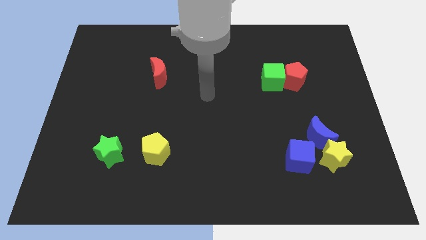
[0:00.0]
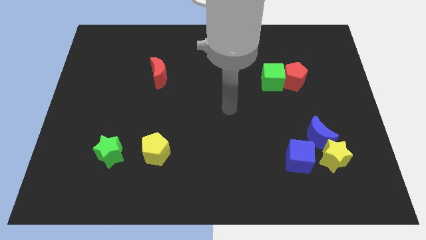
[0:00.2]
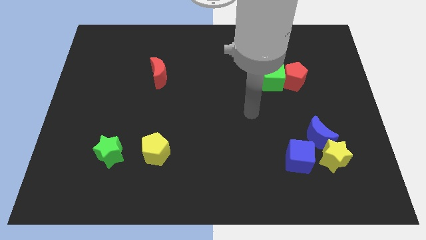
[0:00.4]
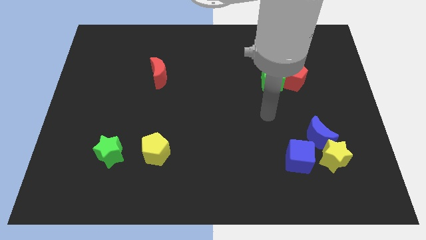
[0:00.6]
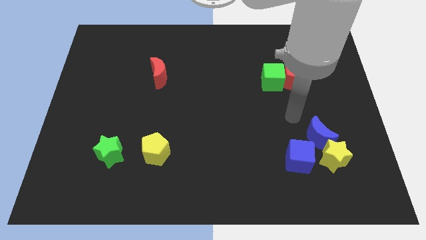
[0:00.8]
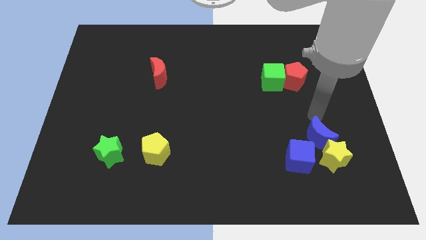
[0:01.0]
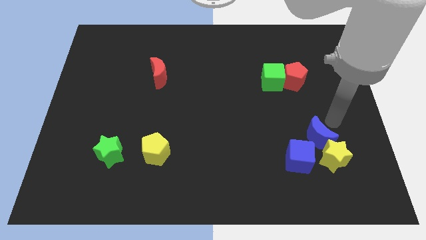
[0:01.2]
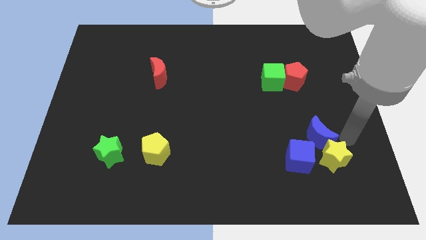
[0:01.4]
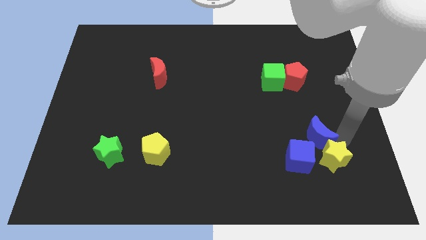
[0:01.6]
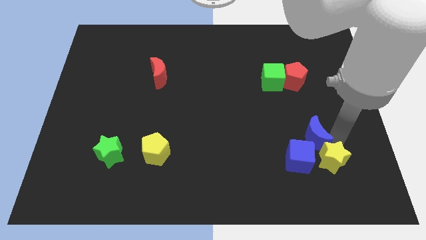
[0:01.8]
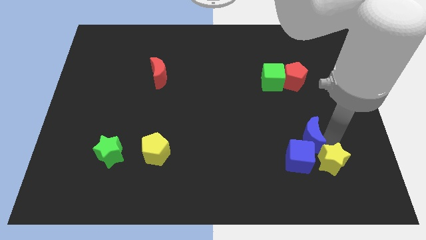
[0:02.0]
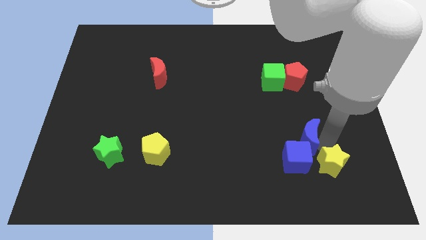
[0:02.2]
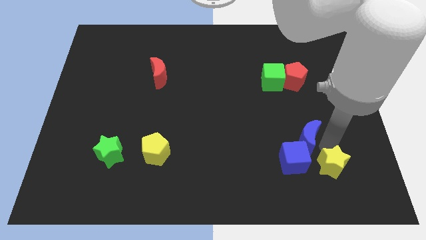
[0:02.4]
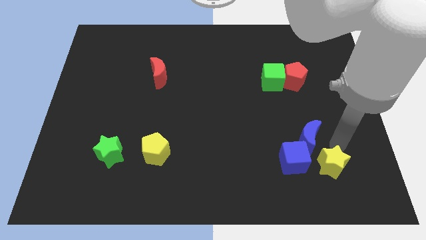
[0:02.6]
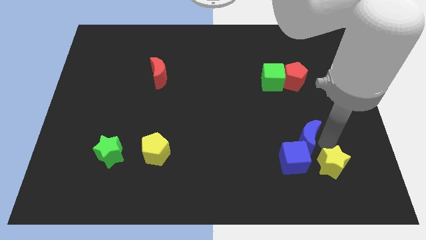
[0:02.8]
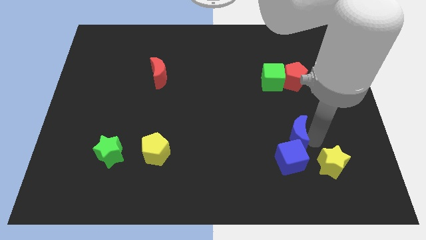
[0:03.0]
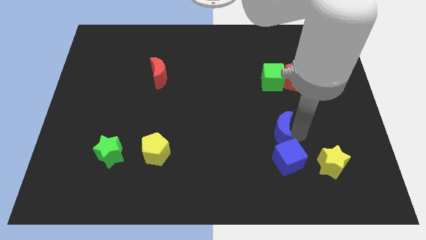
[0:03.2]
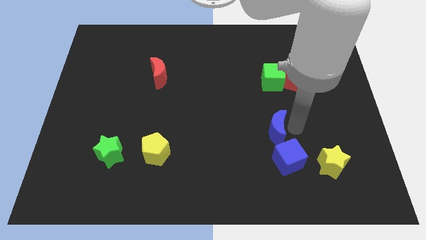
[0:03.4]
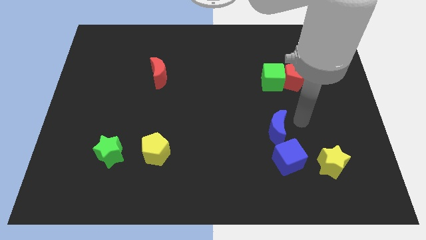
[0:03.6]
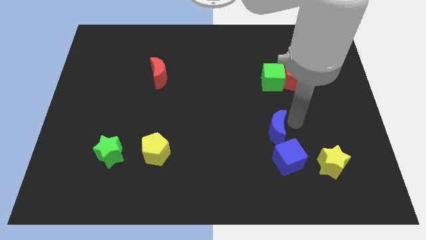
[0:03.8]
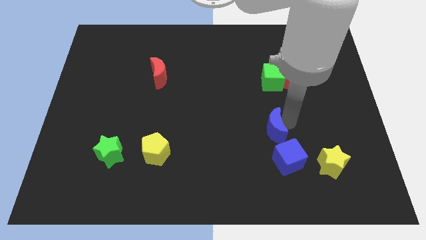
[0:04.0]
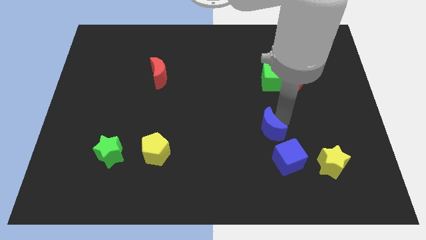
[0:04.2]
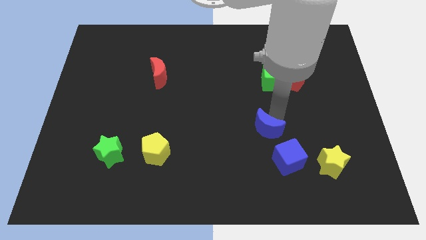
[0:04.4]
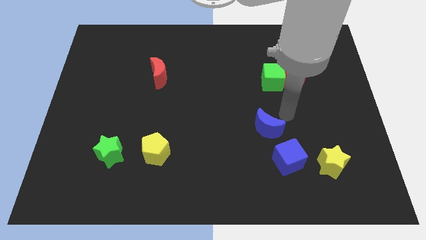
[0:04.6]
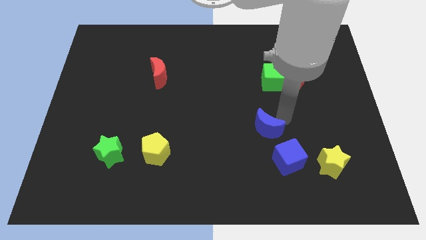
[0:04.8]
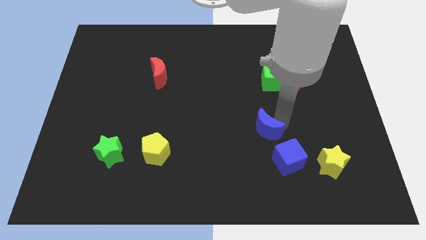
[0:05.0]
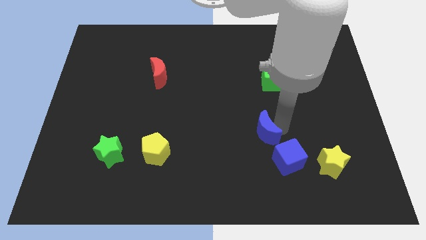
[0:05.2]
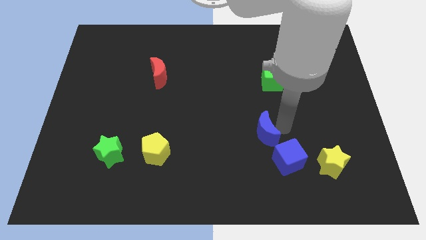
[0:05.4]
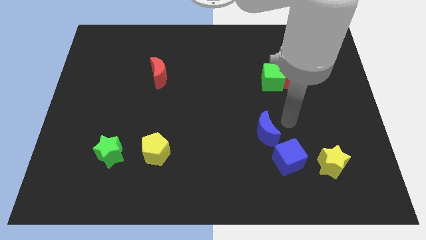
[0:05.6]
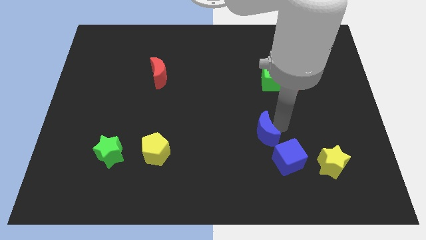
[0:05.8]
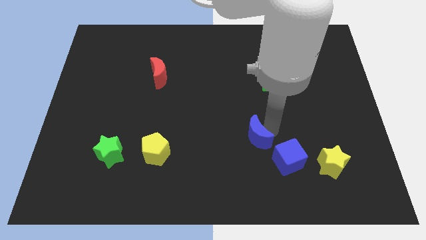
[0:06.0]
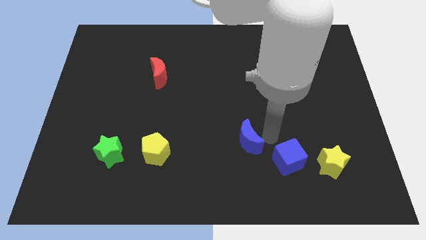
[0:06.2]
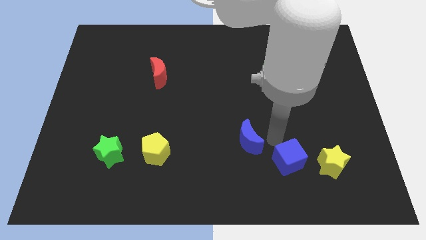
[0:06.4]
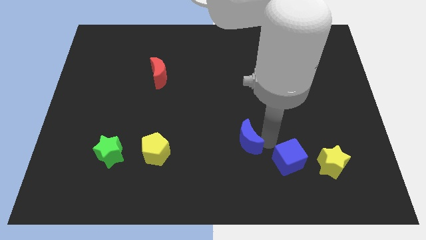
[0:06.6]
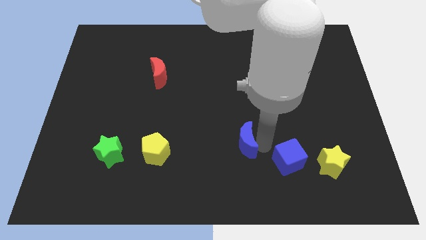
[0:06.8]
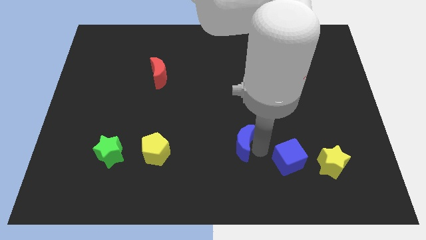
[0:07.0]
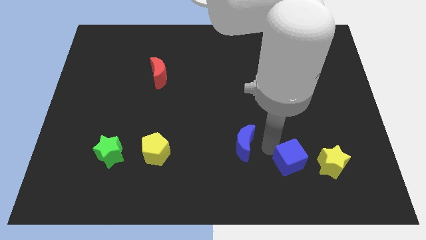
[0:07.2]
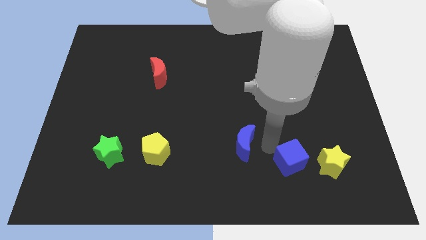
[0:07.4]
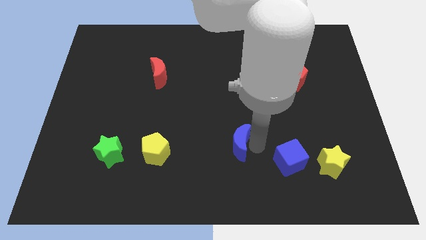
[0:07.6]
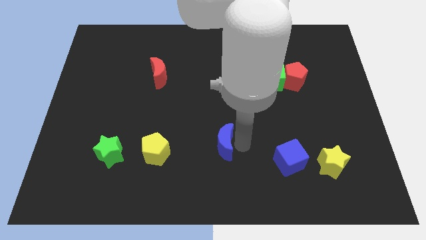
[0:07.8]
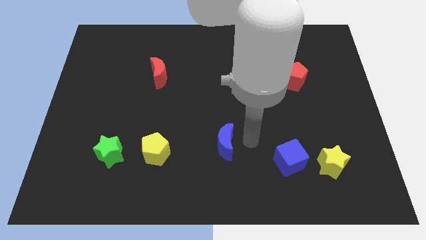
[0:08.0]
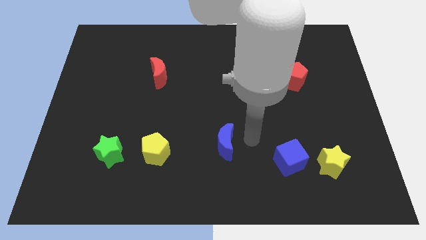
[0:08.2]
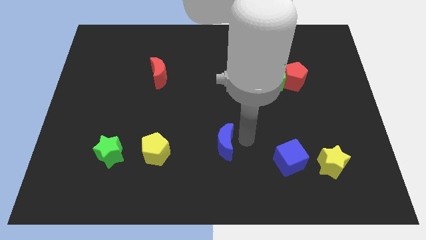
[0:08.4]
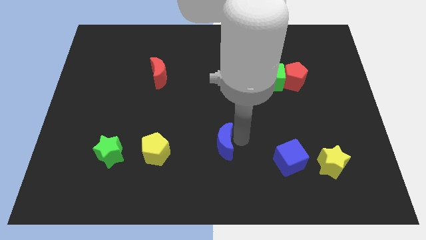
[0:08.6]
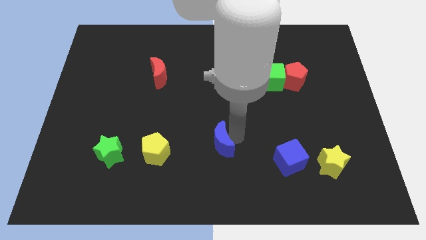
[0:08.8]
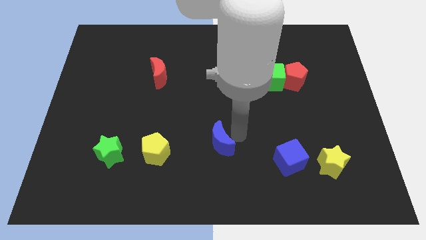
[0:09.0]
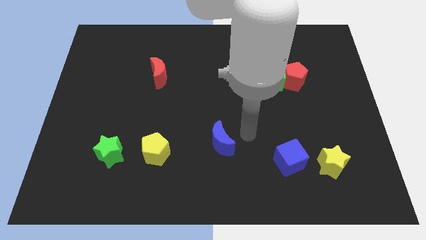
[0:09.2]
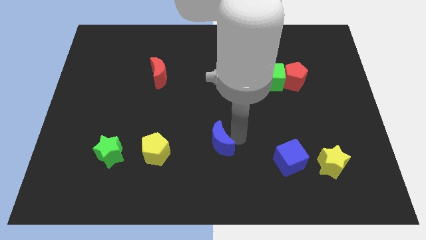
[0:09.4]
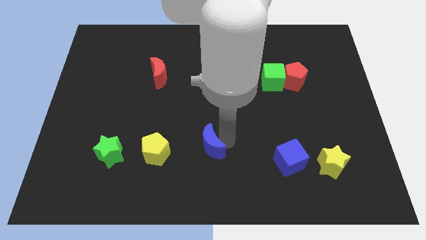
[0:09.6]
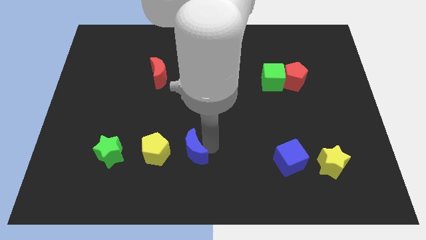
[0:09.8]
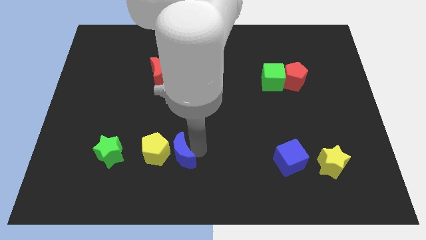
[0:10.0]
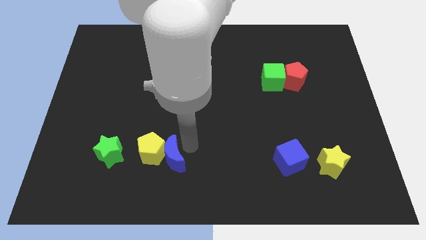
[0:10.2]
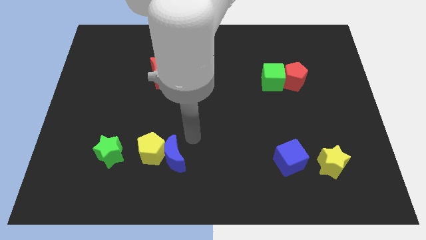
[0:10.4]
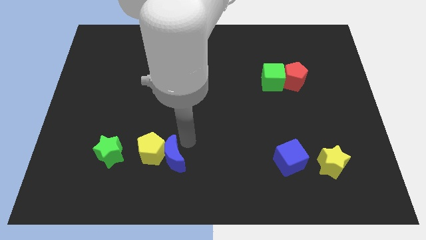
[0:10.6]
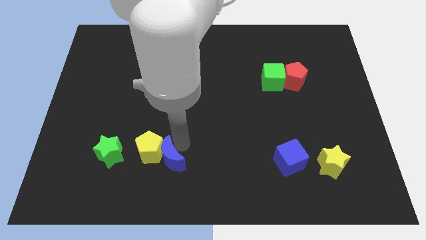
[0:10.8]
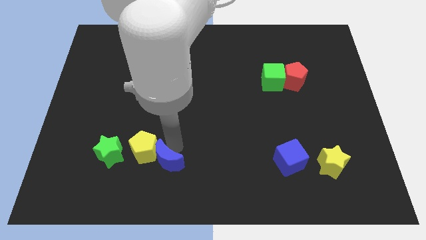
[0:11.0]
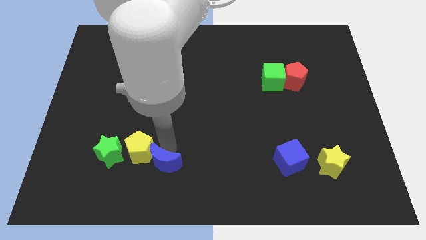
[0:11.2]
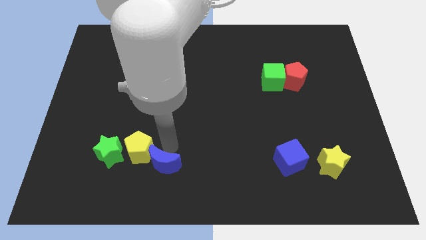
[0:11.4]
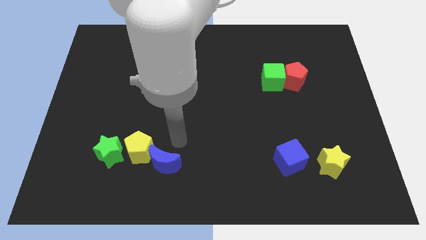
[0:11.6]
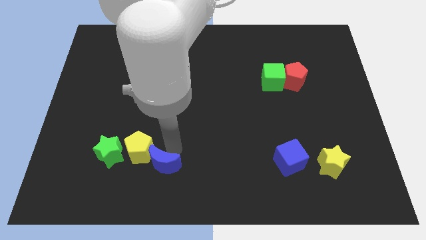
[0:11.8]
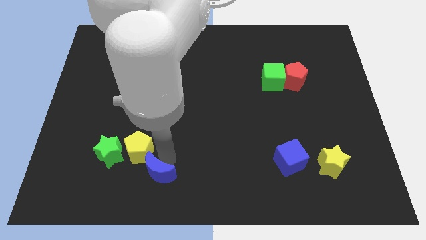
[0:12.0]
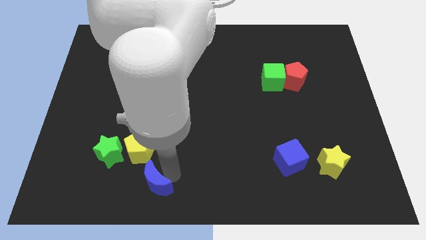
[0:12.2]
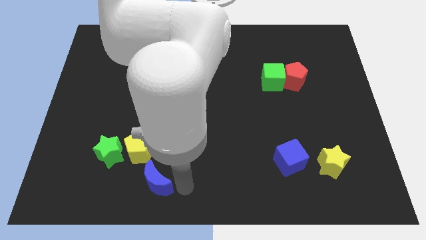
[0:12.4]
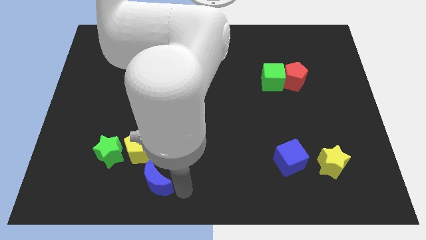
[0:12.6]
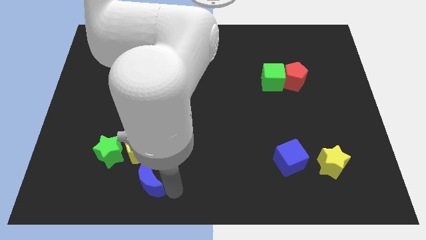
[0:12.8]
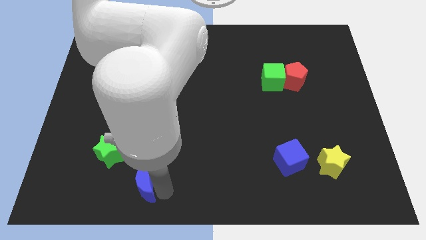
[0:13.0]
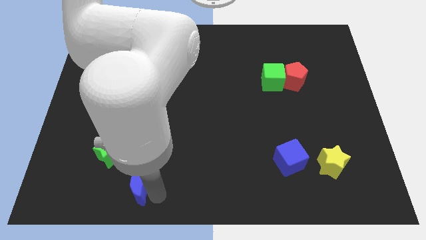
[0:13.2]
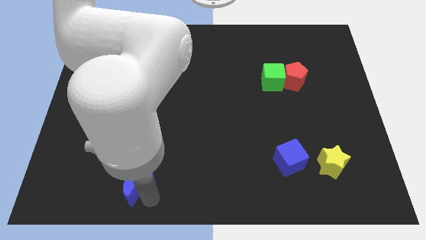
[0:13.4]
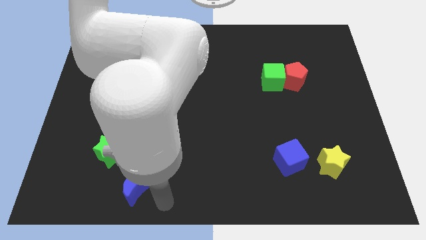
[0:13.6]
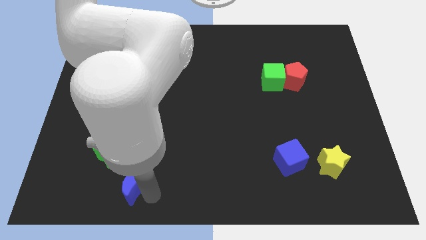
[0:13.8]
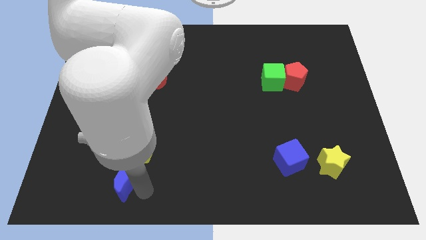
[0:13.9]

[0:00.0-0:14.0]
move the blue moon diagonally down and to the left of the yellow pentagon
